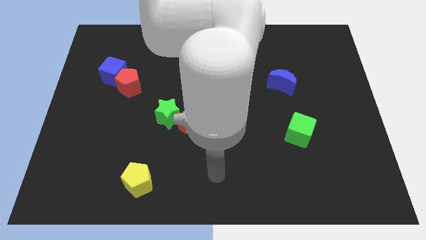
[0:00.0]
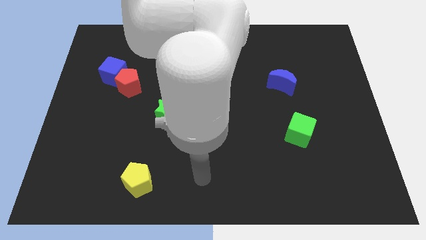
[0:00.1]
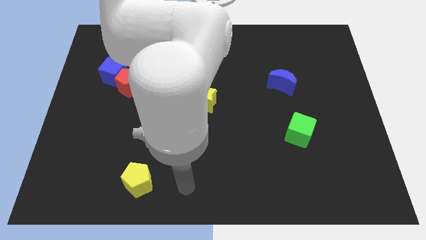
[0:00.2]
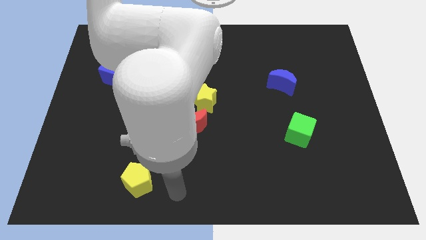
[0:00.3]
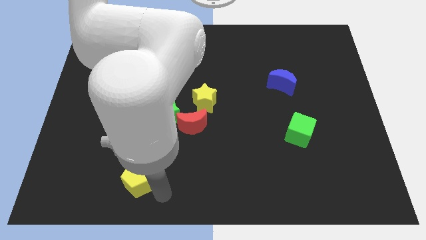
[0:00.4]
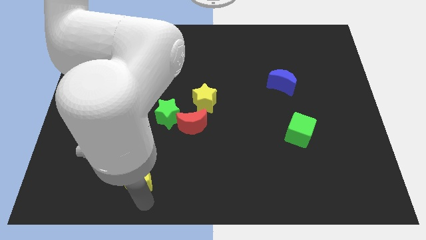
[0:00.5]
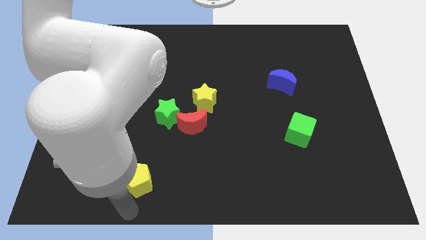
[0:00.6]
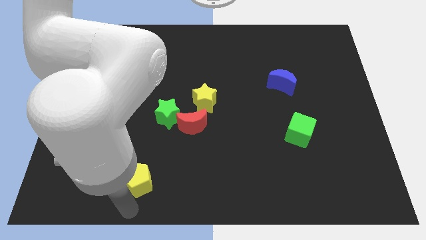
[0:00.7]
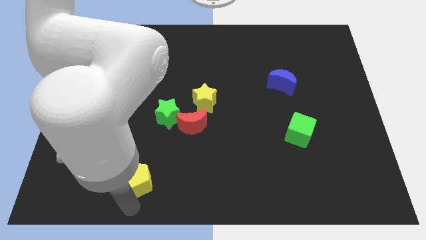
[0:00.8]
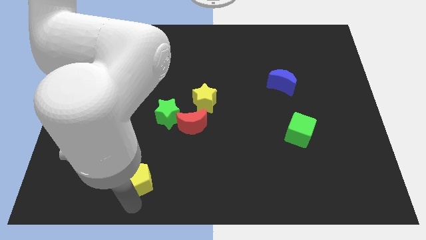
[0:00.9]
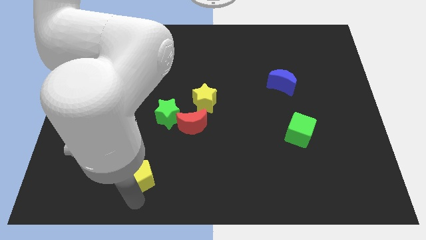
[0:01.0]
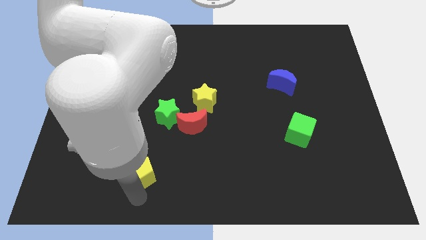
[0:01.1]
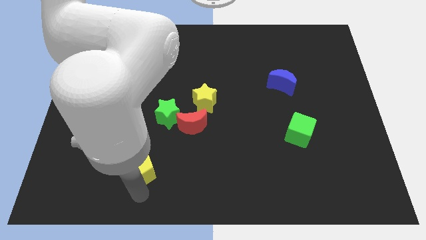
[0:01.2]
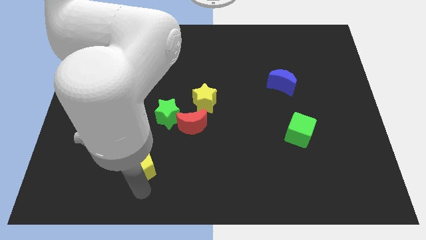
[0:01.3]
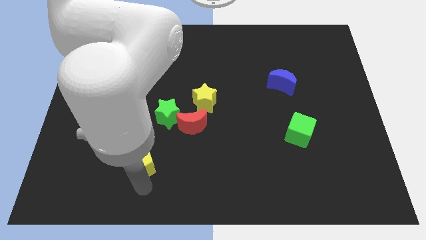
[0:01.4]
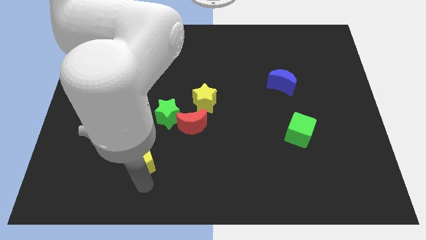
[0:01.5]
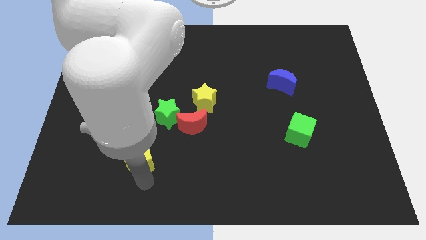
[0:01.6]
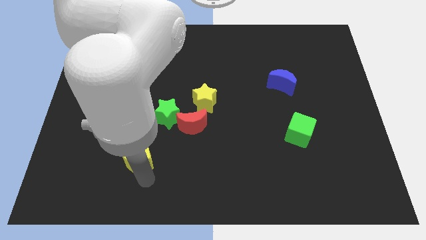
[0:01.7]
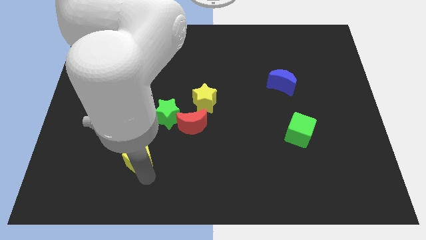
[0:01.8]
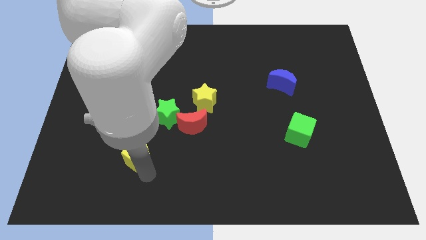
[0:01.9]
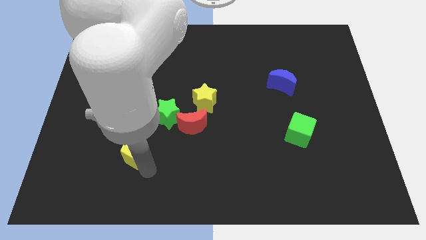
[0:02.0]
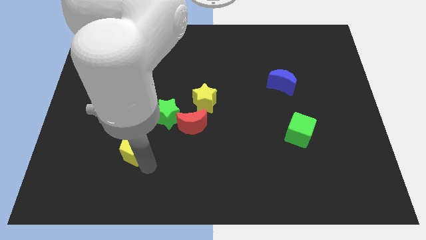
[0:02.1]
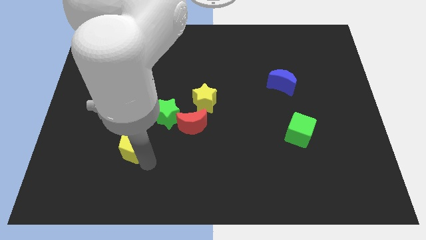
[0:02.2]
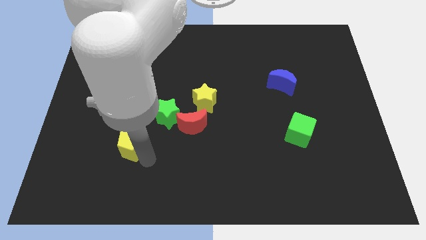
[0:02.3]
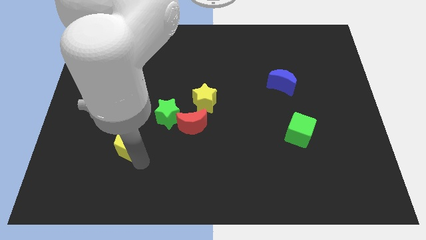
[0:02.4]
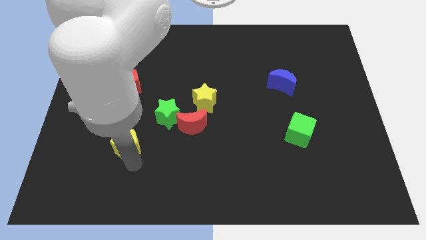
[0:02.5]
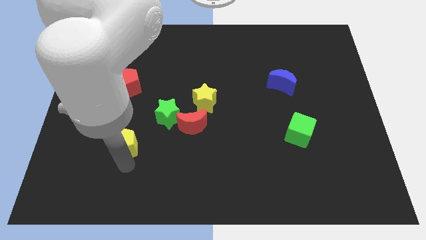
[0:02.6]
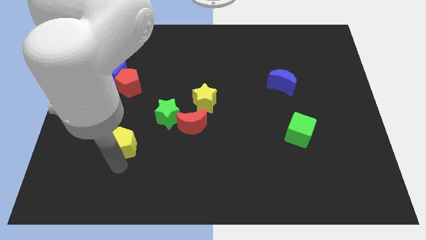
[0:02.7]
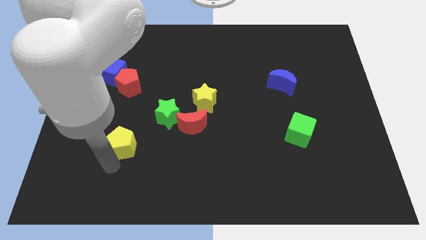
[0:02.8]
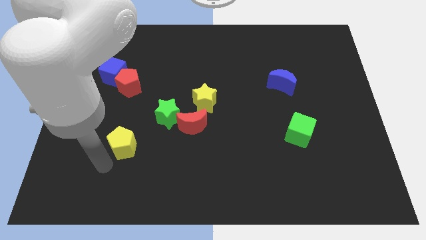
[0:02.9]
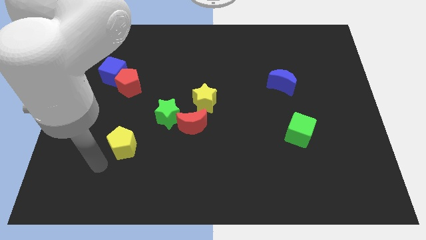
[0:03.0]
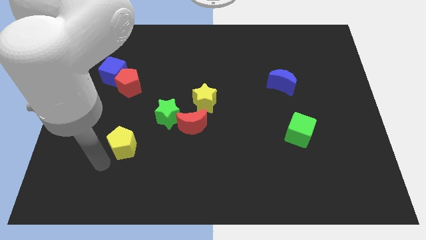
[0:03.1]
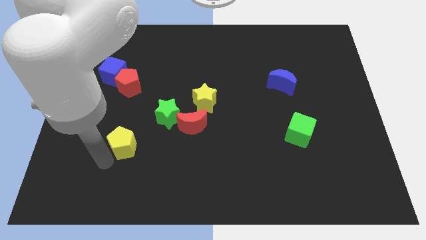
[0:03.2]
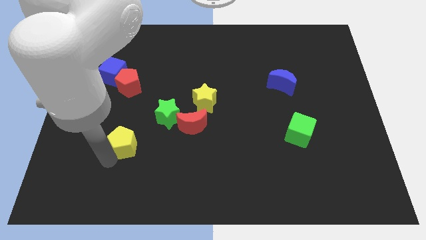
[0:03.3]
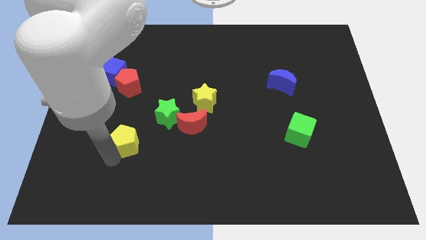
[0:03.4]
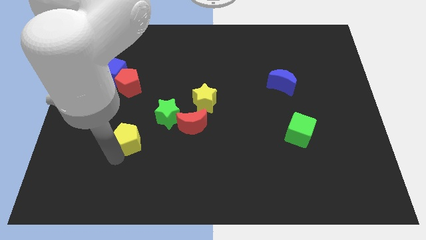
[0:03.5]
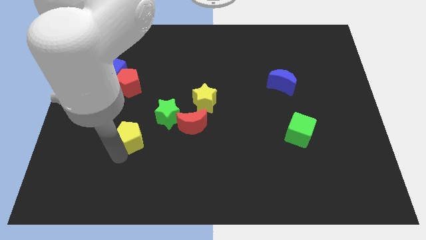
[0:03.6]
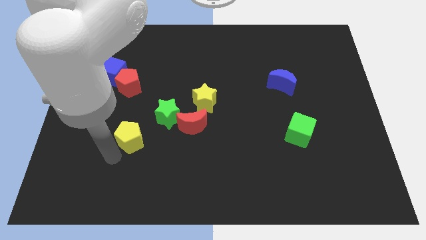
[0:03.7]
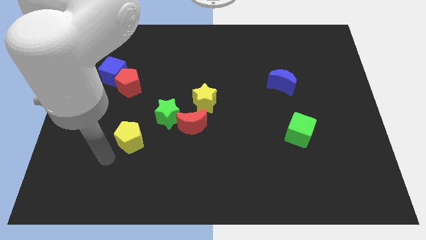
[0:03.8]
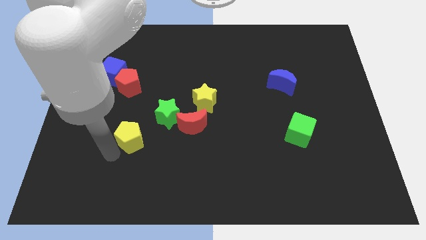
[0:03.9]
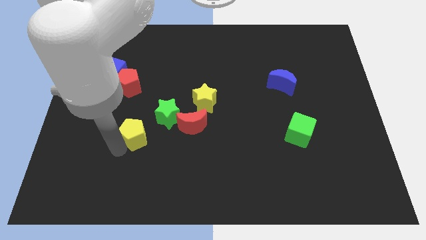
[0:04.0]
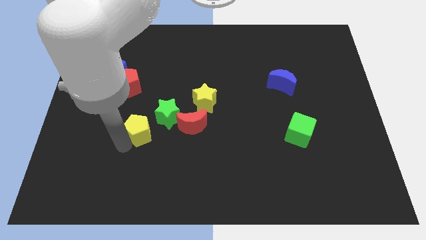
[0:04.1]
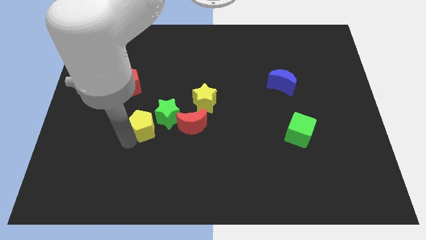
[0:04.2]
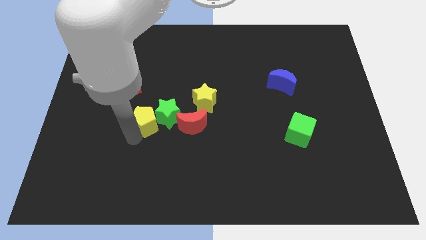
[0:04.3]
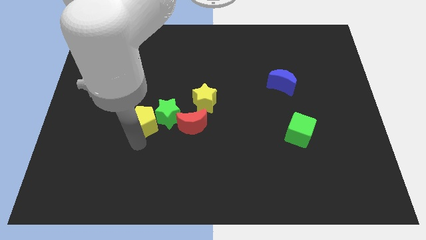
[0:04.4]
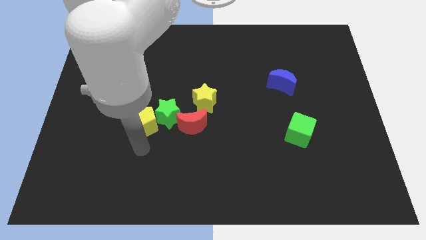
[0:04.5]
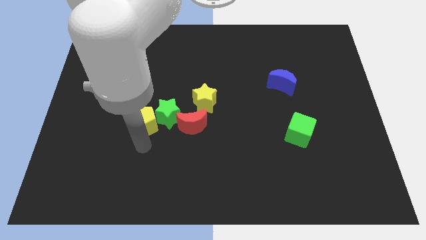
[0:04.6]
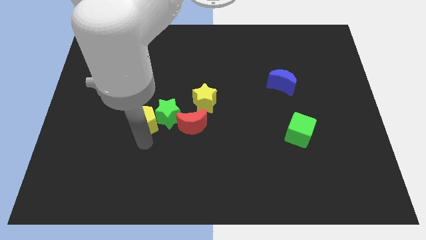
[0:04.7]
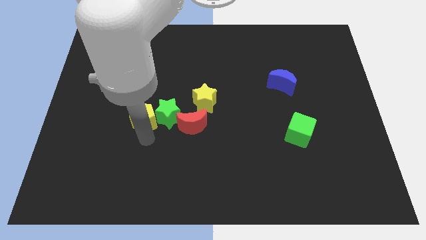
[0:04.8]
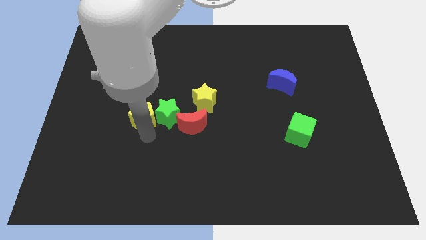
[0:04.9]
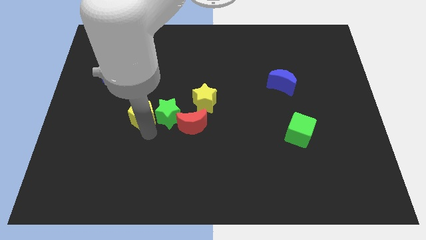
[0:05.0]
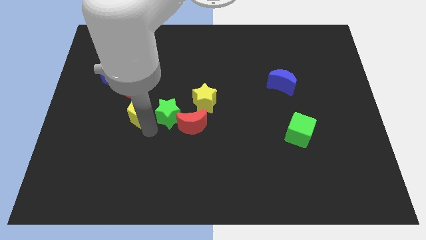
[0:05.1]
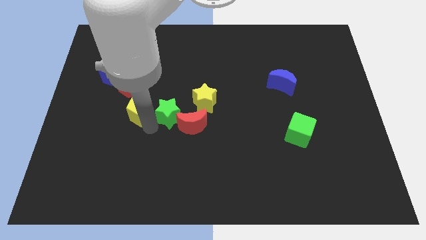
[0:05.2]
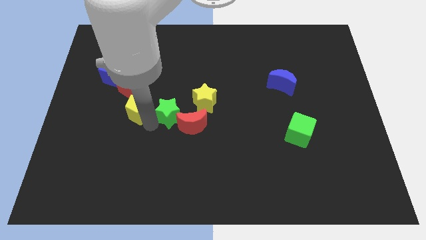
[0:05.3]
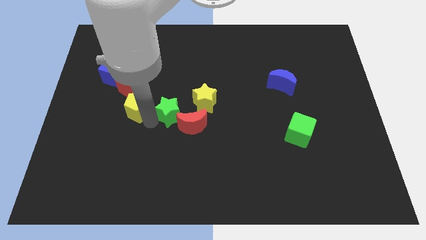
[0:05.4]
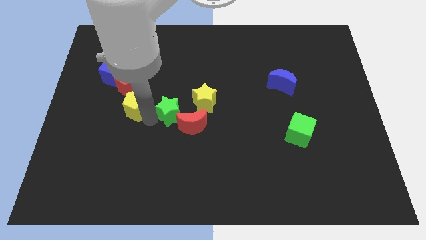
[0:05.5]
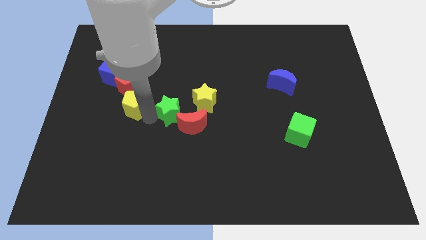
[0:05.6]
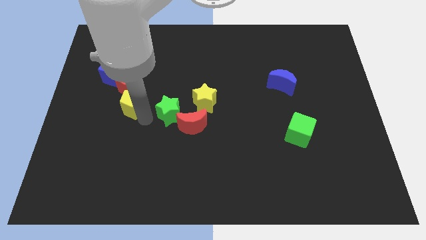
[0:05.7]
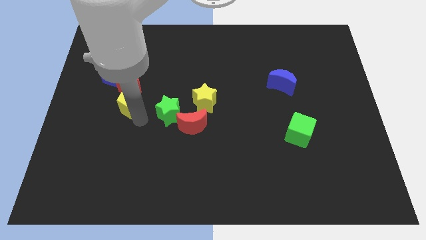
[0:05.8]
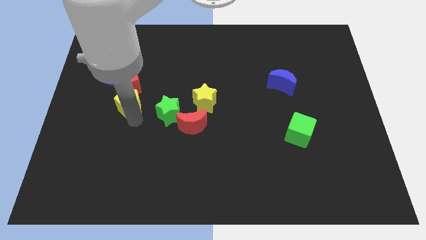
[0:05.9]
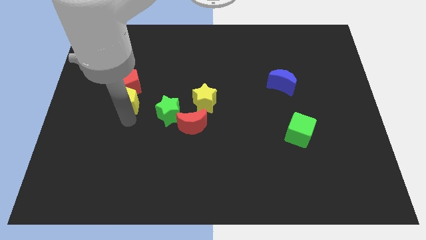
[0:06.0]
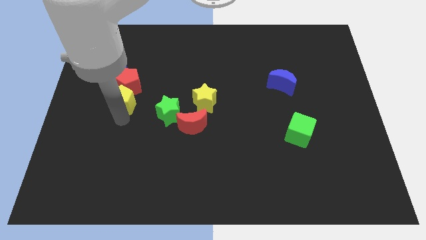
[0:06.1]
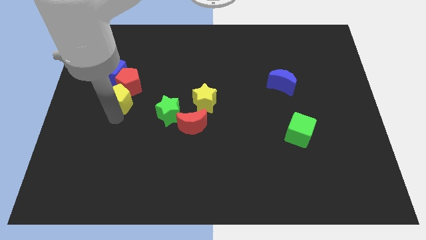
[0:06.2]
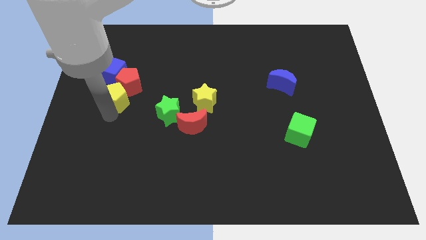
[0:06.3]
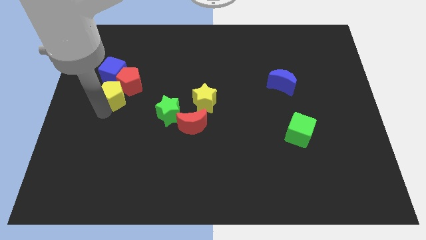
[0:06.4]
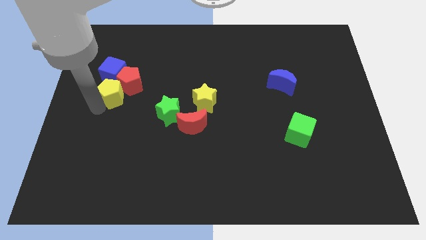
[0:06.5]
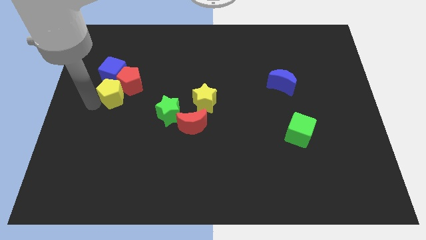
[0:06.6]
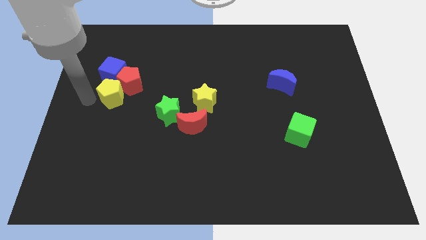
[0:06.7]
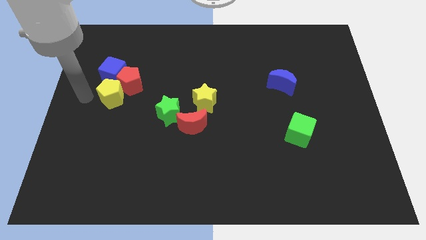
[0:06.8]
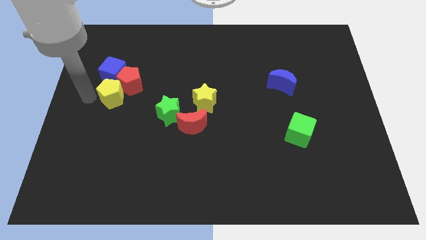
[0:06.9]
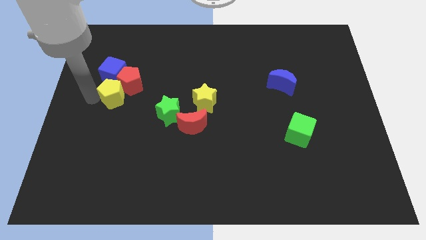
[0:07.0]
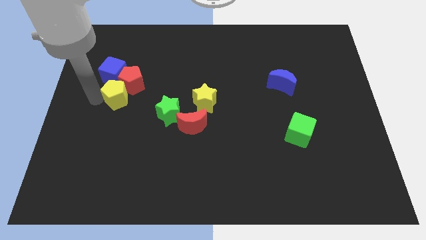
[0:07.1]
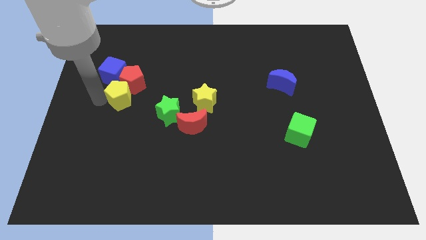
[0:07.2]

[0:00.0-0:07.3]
slide the yellow pentagon upwards

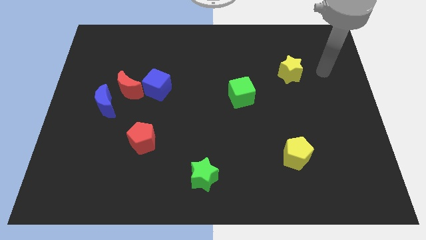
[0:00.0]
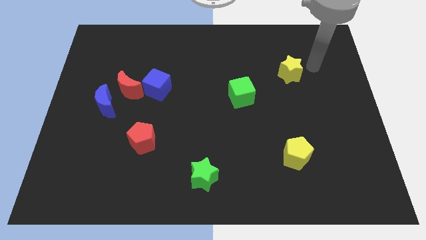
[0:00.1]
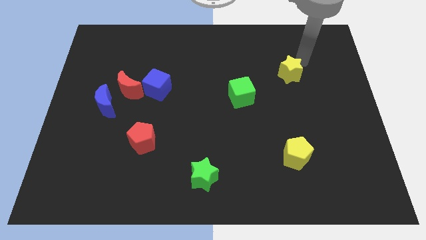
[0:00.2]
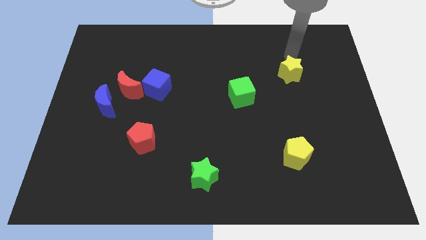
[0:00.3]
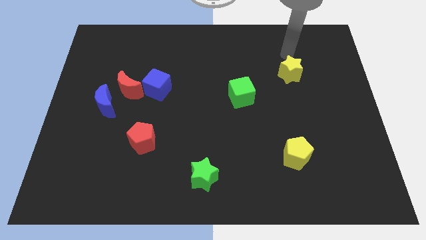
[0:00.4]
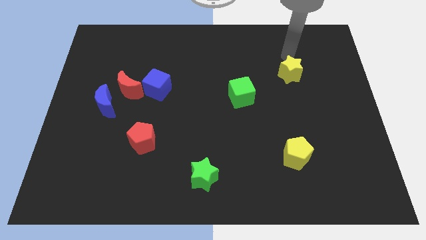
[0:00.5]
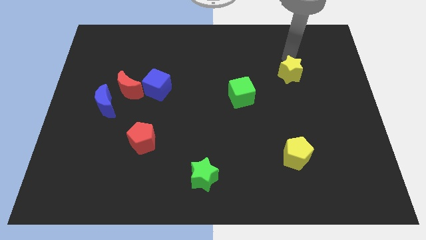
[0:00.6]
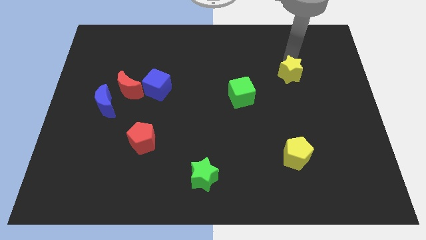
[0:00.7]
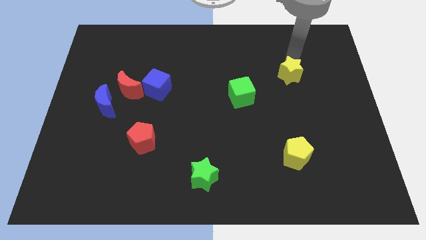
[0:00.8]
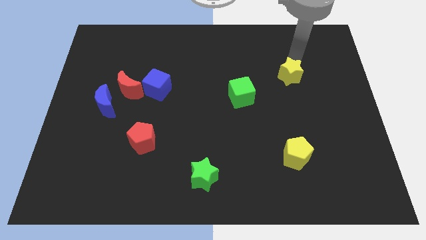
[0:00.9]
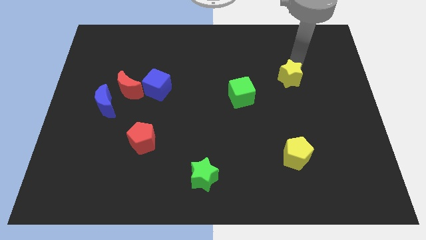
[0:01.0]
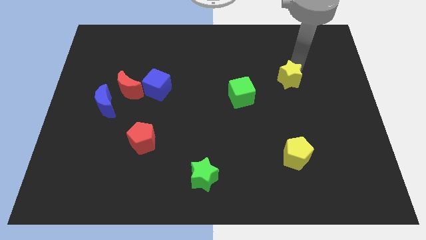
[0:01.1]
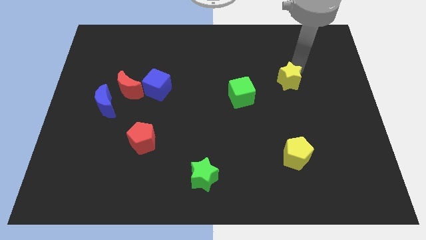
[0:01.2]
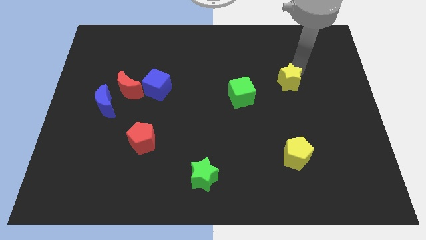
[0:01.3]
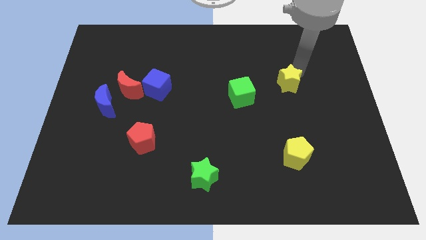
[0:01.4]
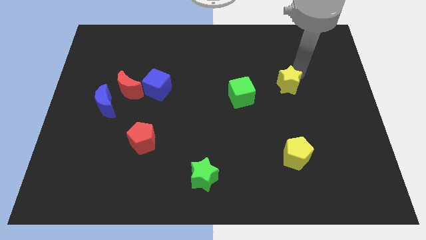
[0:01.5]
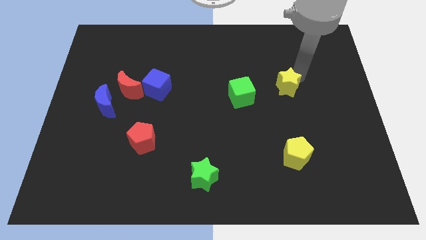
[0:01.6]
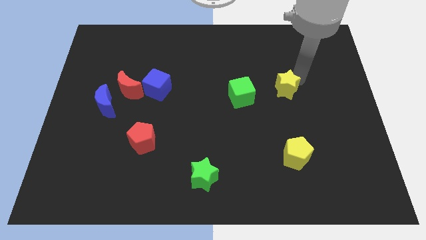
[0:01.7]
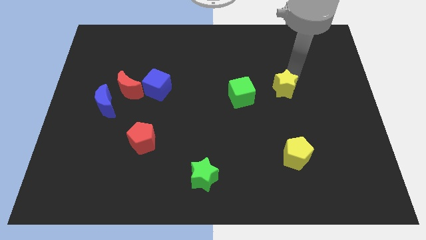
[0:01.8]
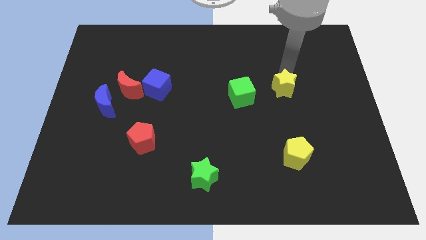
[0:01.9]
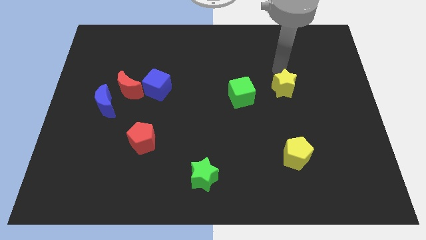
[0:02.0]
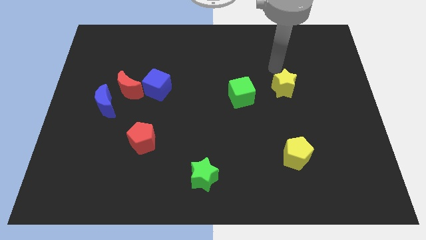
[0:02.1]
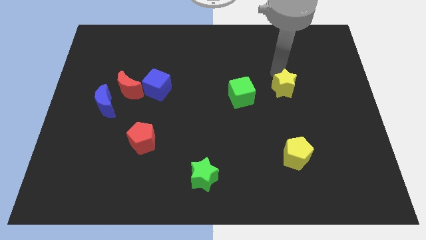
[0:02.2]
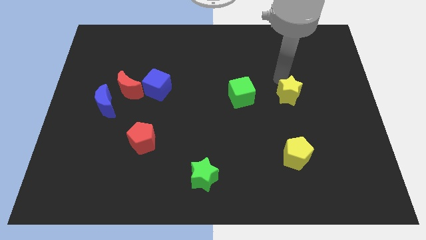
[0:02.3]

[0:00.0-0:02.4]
slide the yellow star downwards slightly
